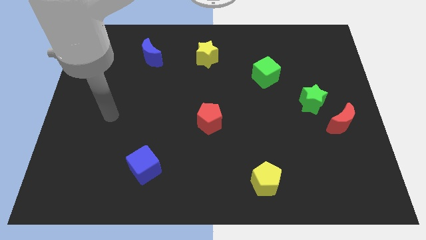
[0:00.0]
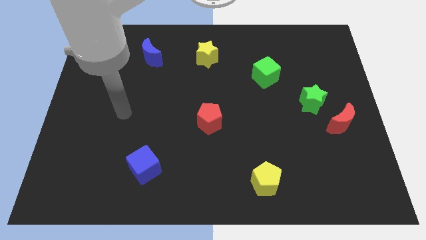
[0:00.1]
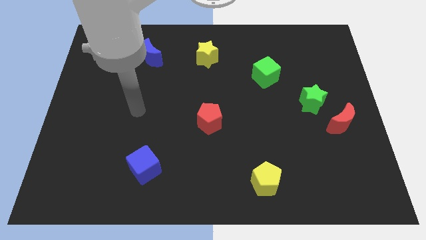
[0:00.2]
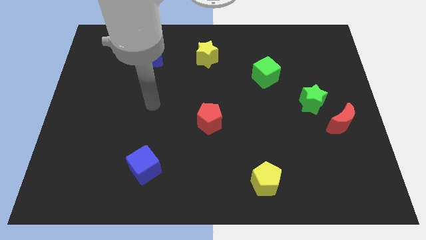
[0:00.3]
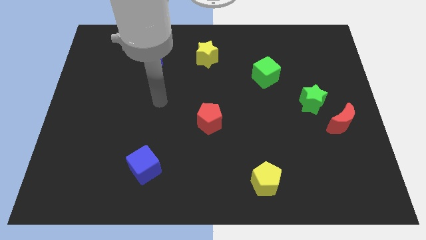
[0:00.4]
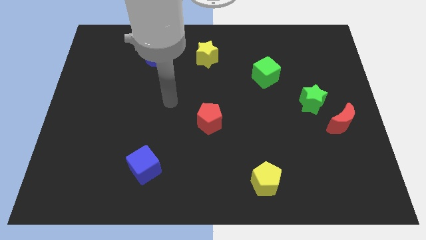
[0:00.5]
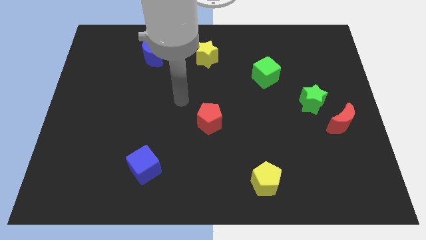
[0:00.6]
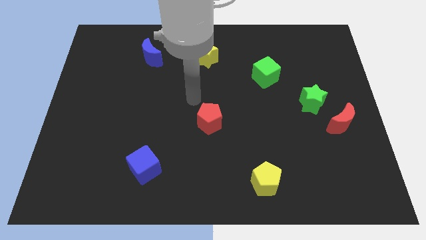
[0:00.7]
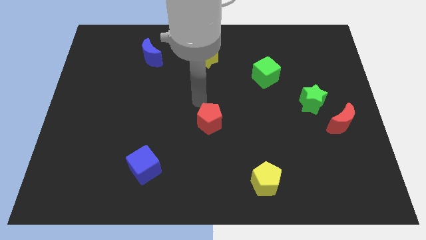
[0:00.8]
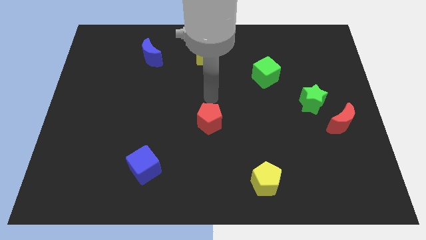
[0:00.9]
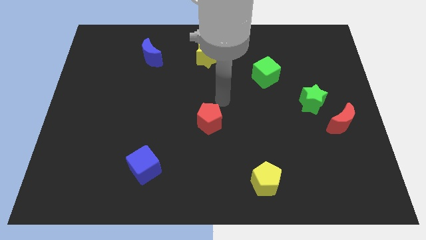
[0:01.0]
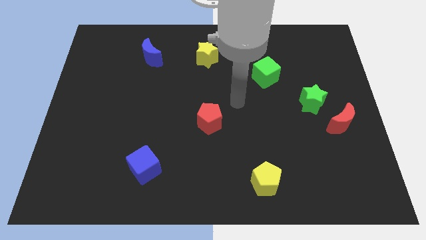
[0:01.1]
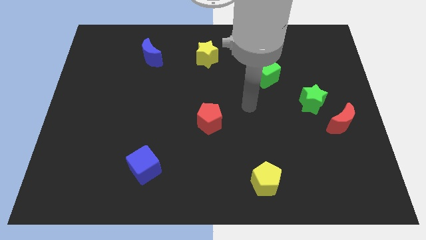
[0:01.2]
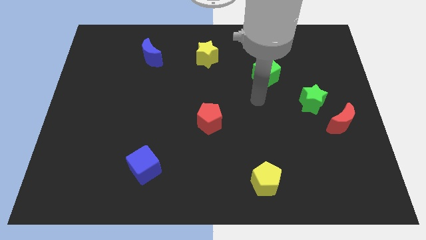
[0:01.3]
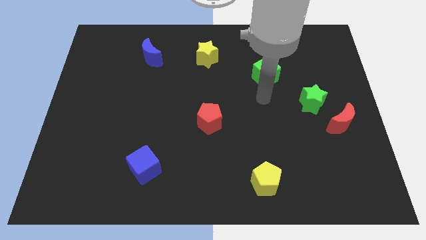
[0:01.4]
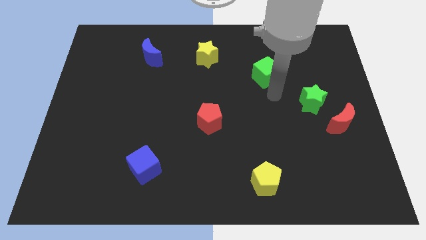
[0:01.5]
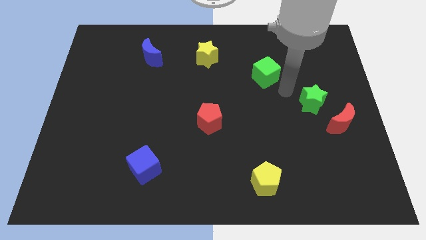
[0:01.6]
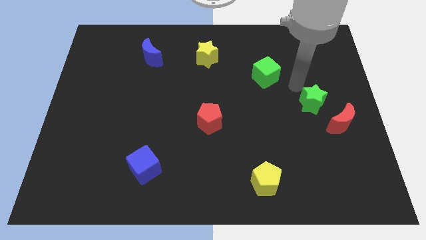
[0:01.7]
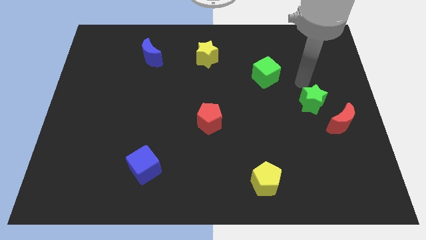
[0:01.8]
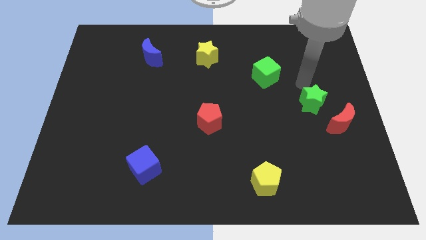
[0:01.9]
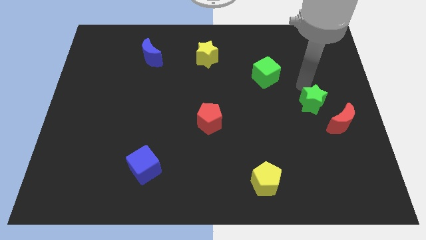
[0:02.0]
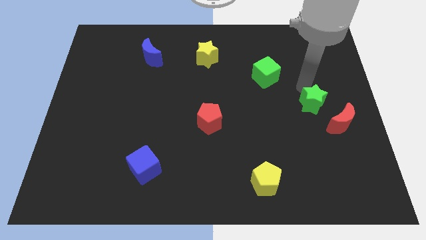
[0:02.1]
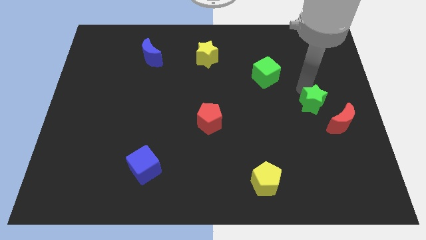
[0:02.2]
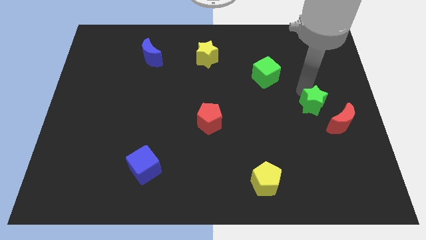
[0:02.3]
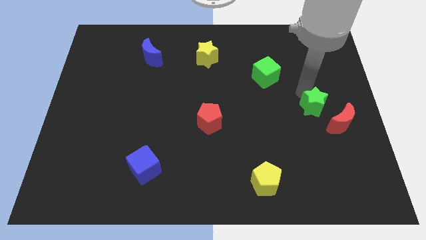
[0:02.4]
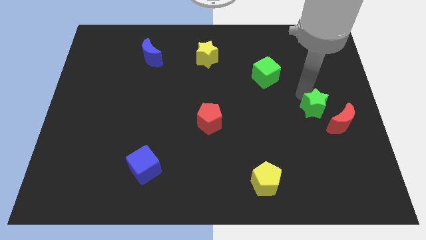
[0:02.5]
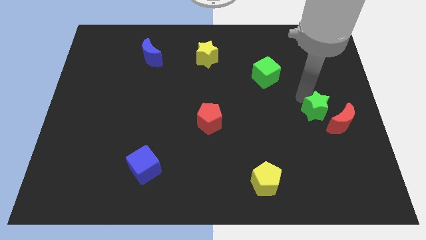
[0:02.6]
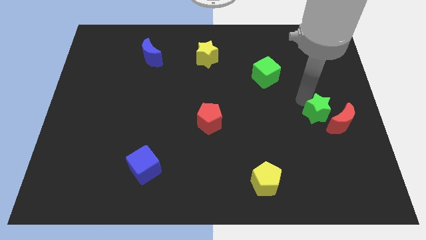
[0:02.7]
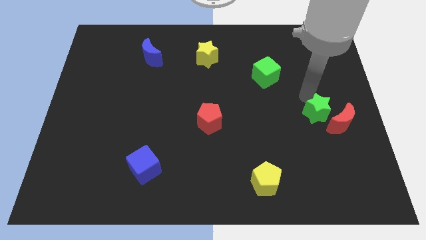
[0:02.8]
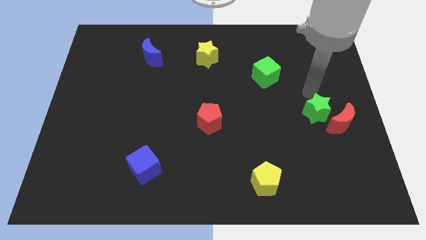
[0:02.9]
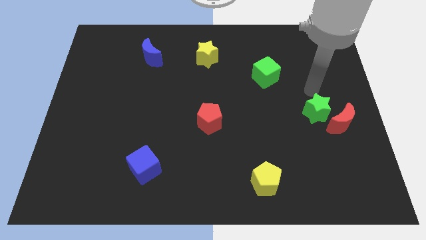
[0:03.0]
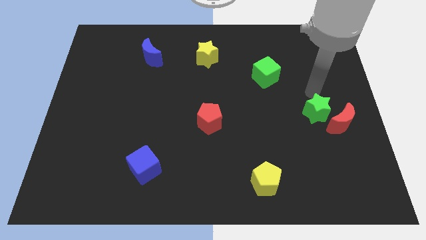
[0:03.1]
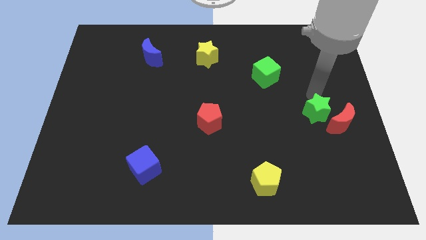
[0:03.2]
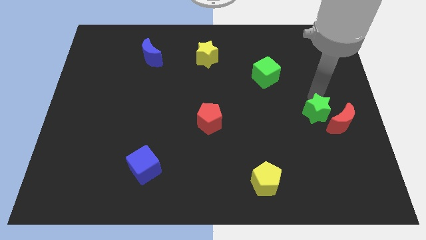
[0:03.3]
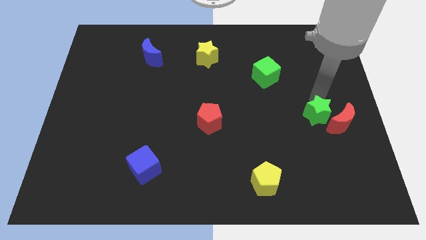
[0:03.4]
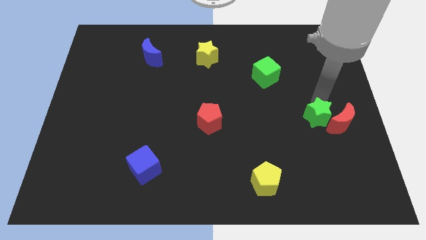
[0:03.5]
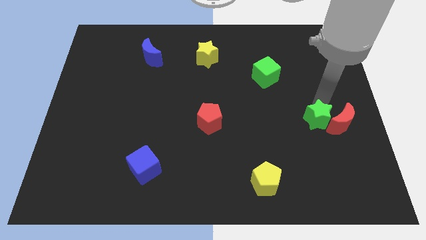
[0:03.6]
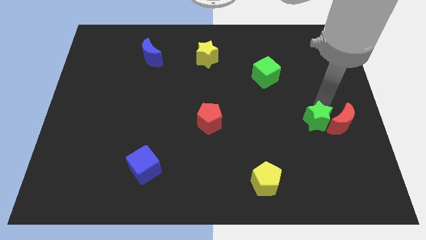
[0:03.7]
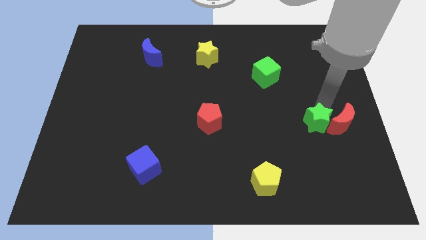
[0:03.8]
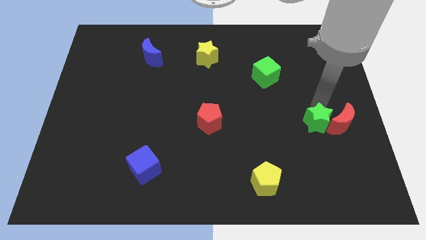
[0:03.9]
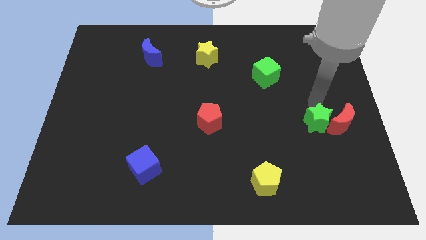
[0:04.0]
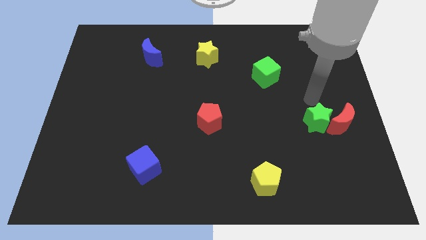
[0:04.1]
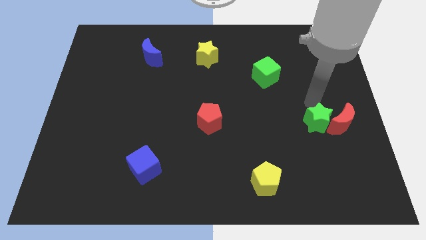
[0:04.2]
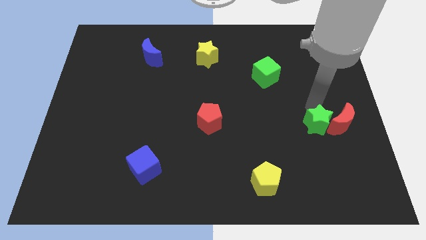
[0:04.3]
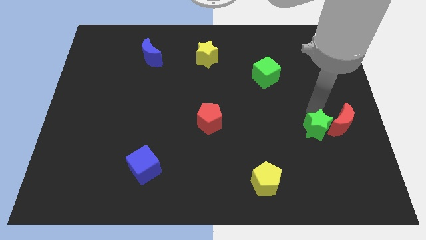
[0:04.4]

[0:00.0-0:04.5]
slide the green star down slightly

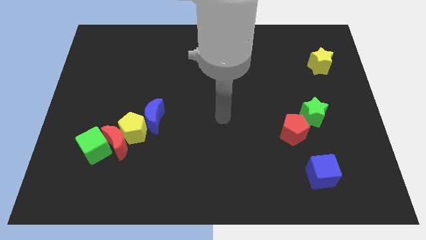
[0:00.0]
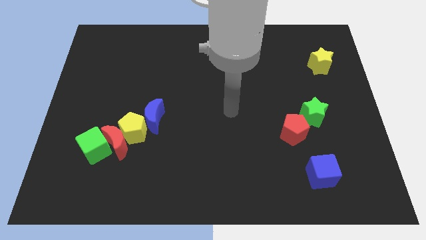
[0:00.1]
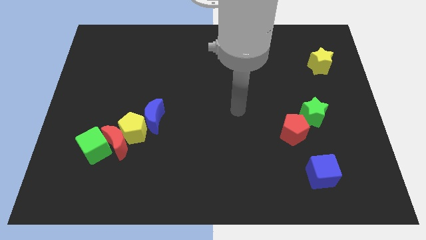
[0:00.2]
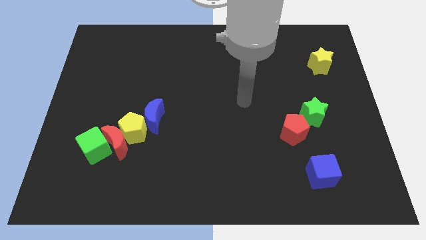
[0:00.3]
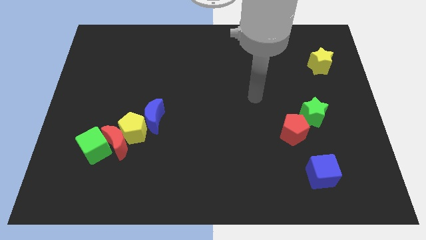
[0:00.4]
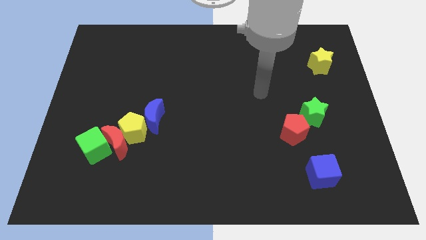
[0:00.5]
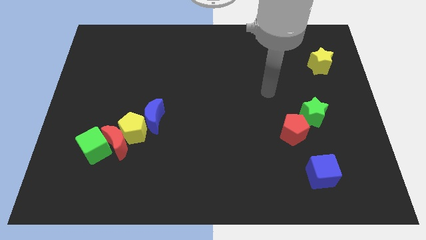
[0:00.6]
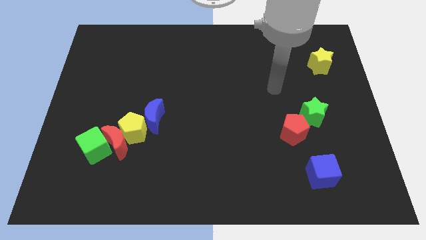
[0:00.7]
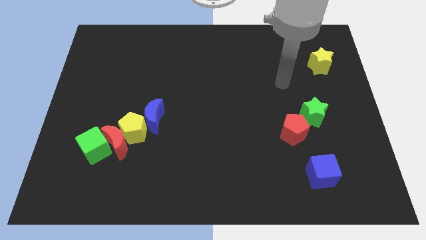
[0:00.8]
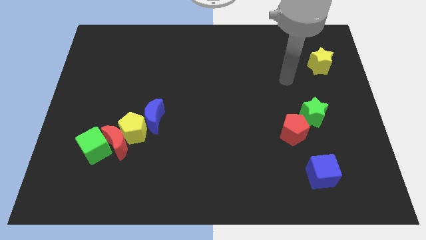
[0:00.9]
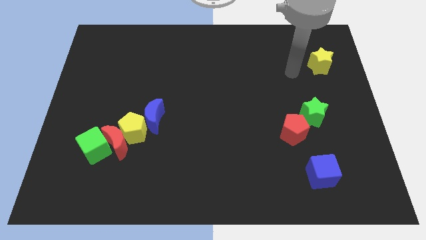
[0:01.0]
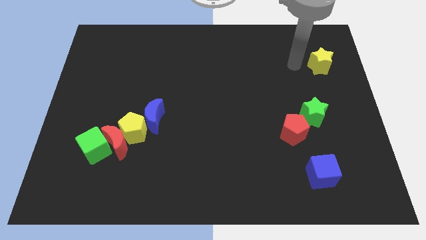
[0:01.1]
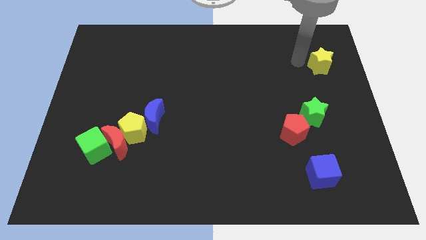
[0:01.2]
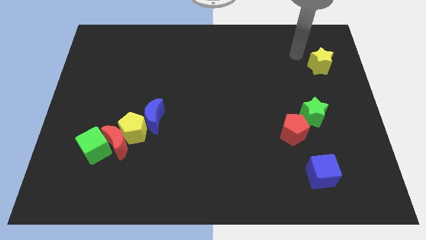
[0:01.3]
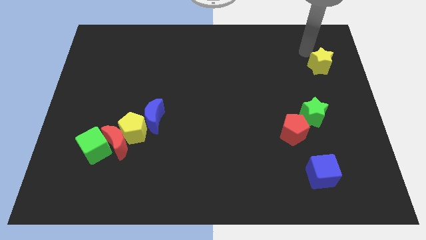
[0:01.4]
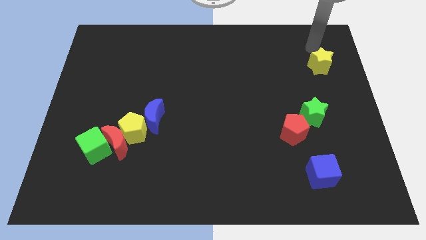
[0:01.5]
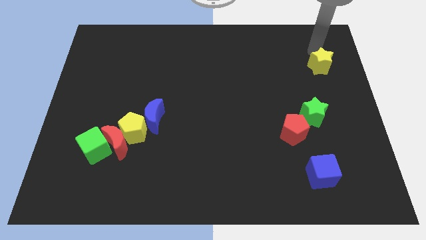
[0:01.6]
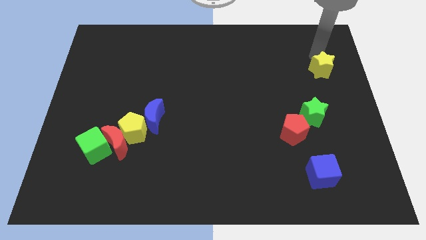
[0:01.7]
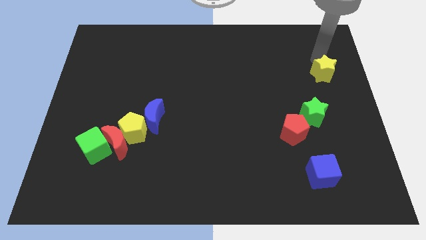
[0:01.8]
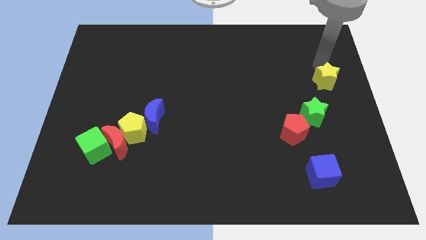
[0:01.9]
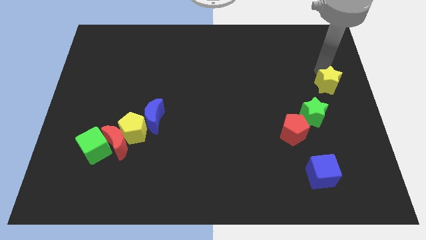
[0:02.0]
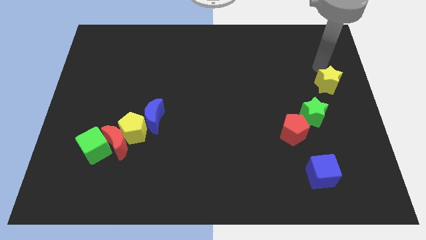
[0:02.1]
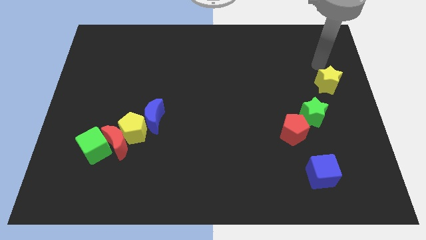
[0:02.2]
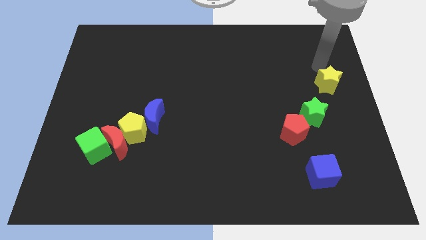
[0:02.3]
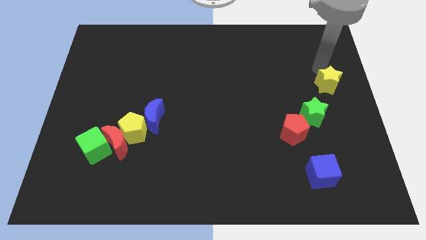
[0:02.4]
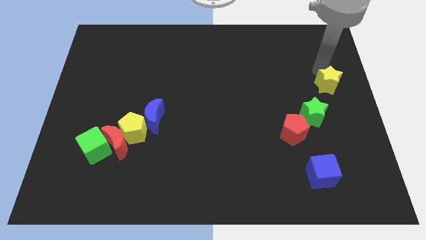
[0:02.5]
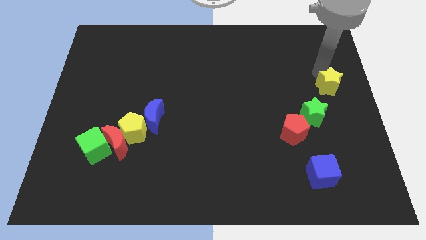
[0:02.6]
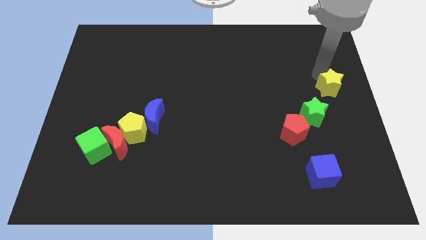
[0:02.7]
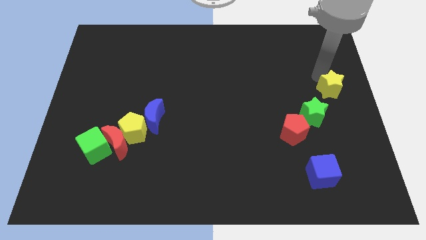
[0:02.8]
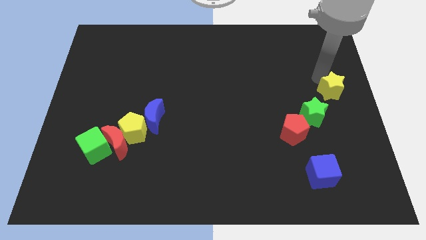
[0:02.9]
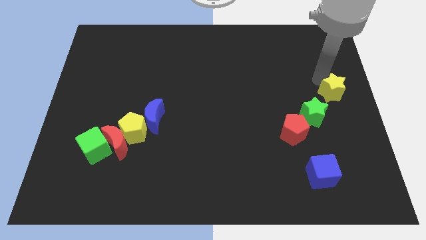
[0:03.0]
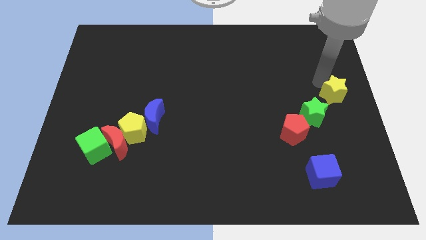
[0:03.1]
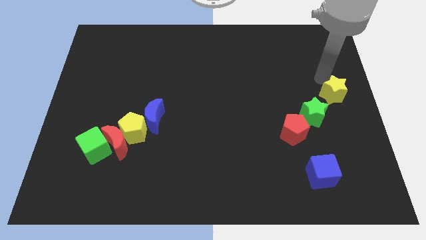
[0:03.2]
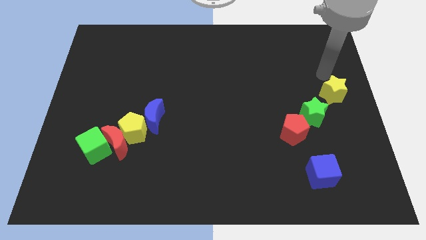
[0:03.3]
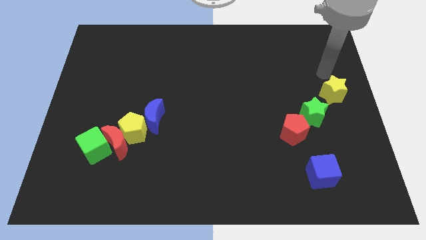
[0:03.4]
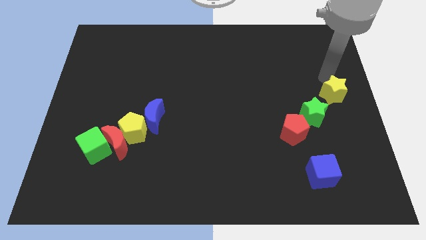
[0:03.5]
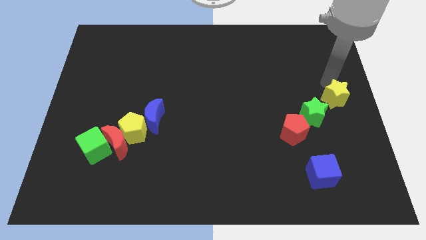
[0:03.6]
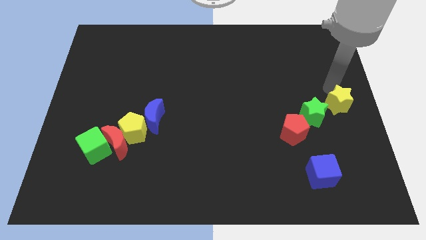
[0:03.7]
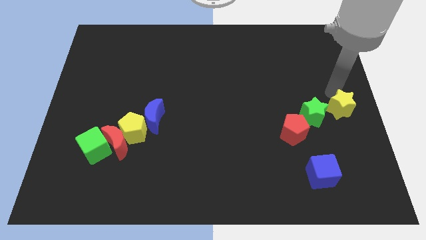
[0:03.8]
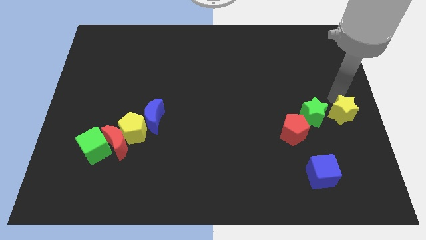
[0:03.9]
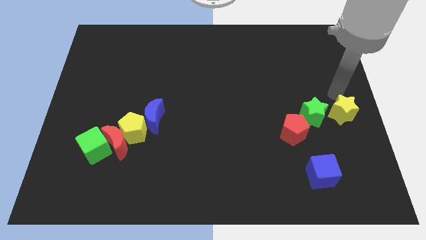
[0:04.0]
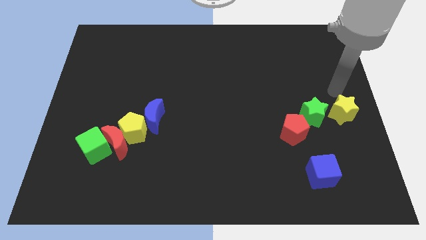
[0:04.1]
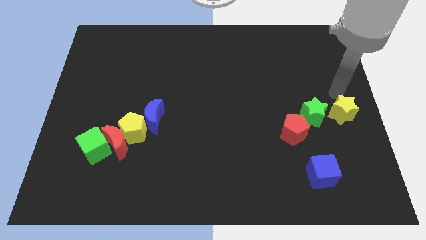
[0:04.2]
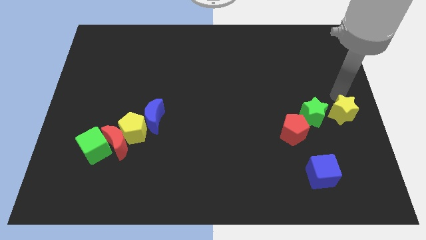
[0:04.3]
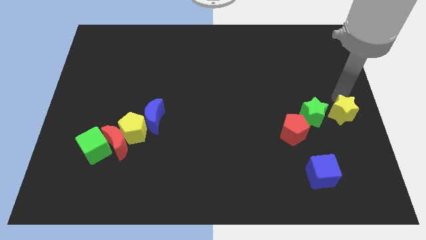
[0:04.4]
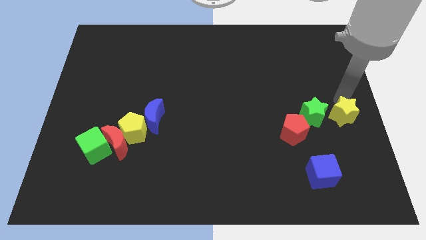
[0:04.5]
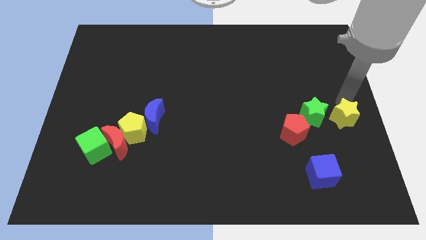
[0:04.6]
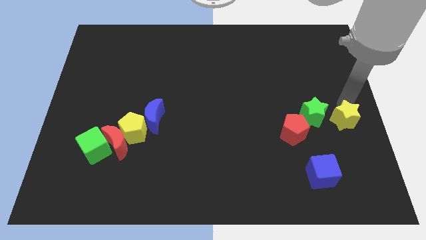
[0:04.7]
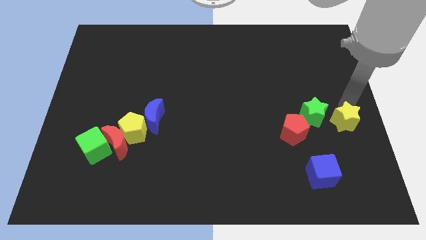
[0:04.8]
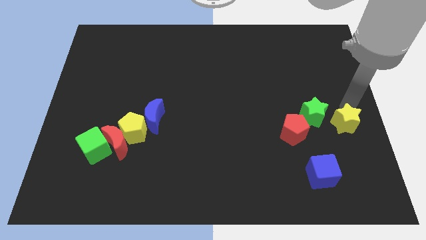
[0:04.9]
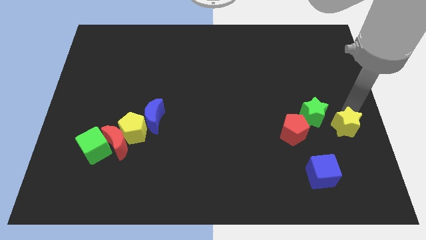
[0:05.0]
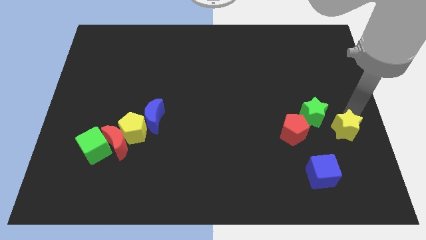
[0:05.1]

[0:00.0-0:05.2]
push the yellow star down
